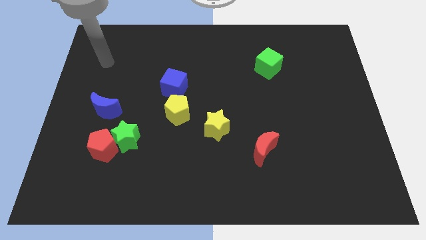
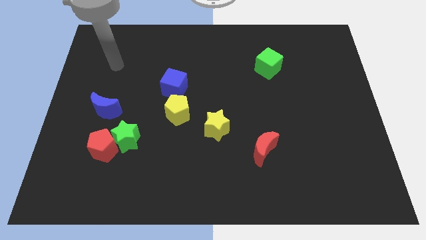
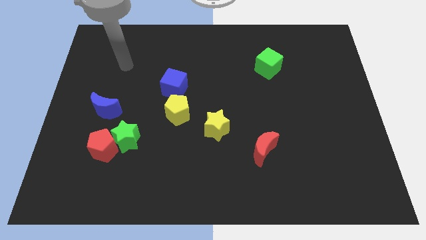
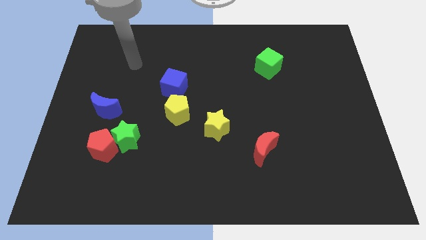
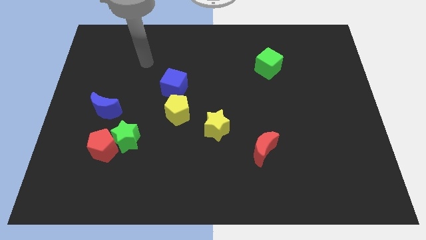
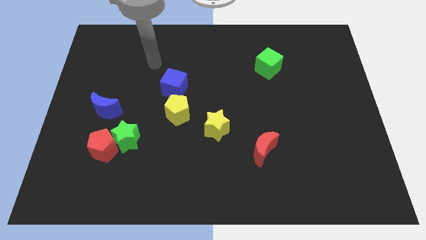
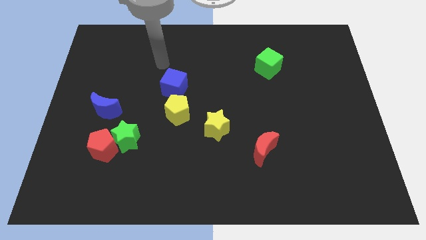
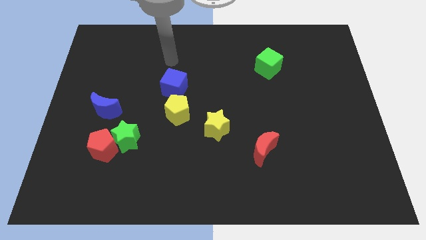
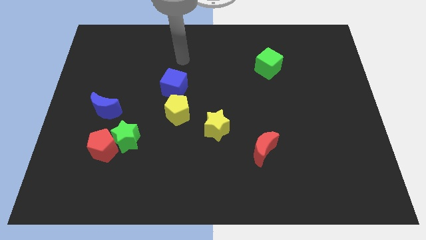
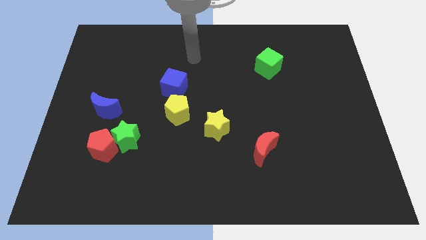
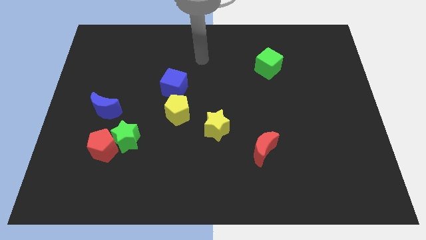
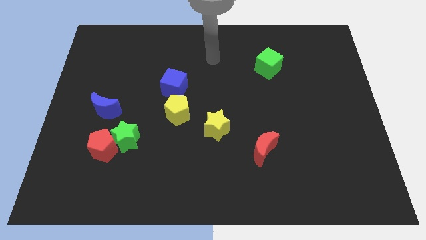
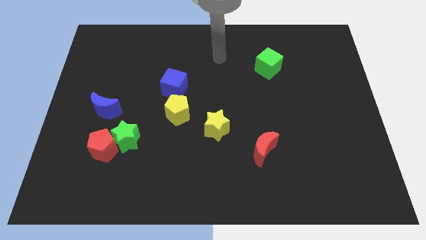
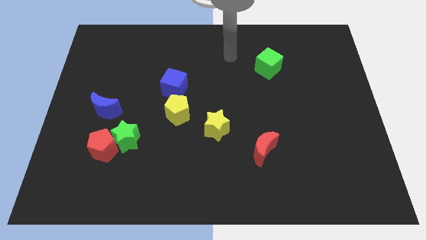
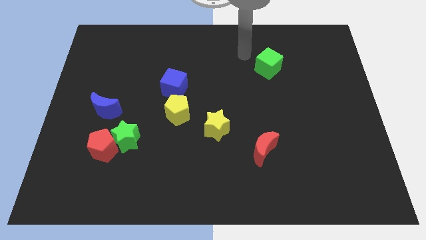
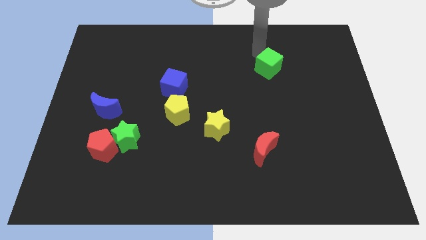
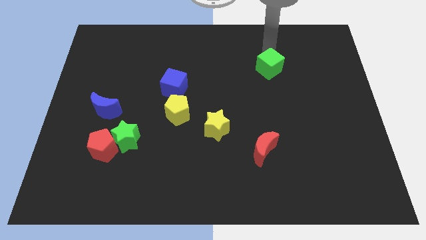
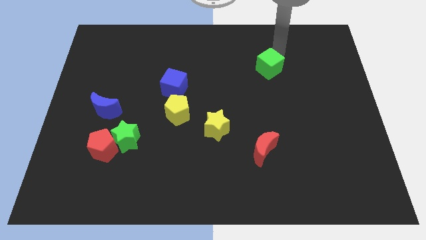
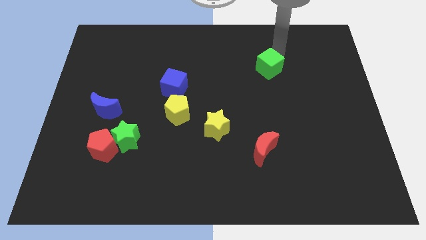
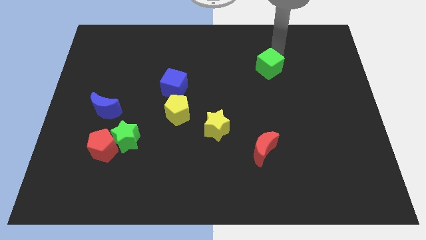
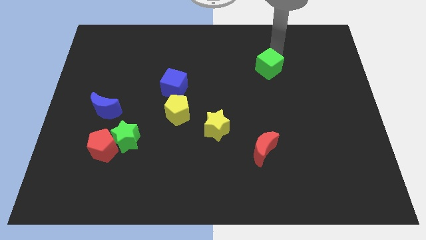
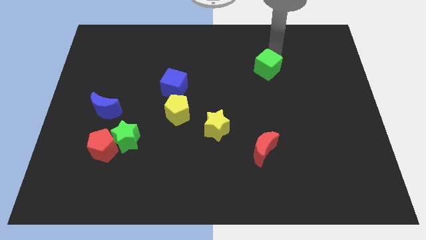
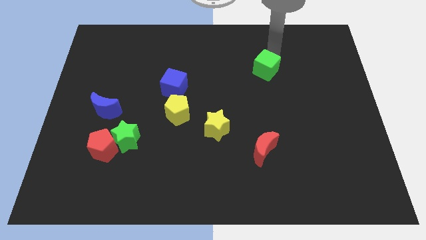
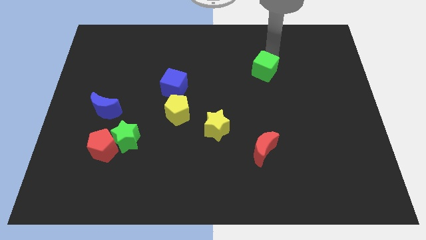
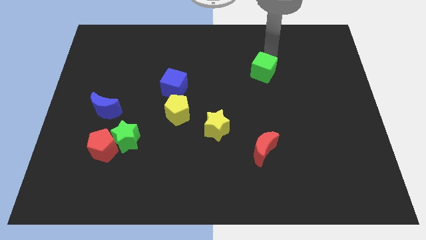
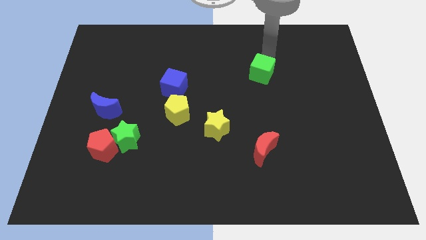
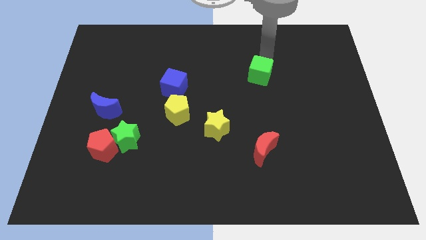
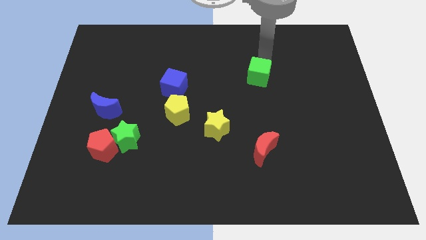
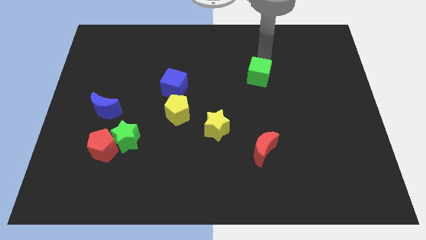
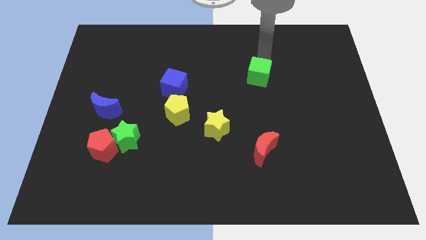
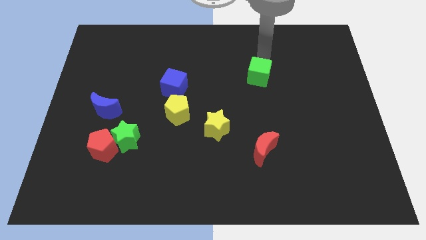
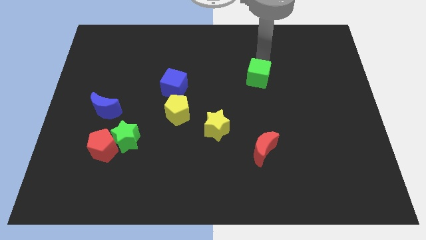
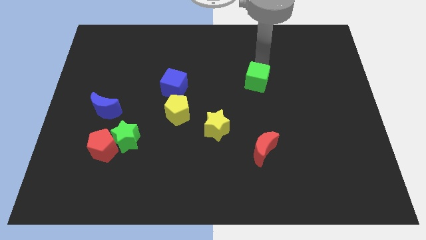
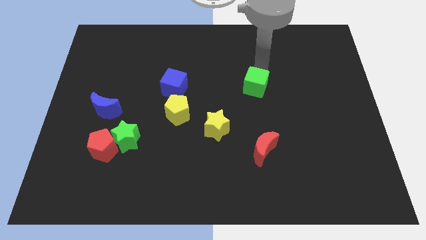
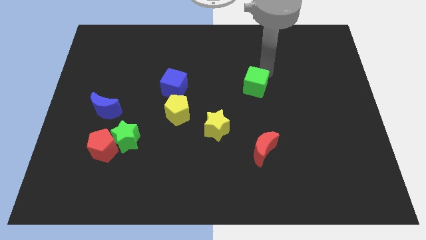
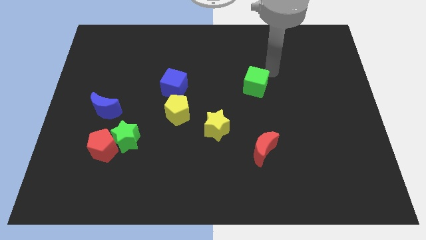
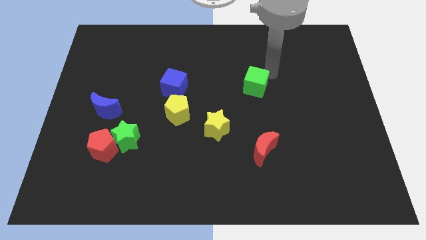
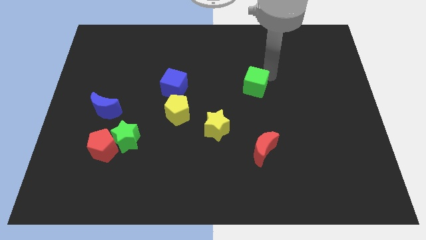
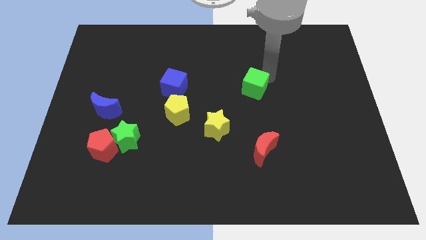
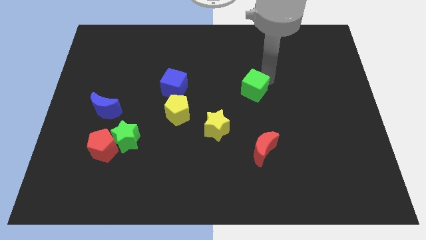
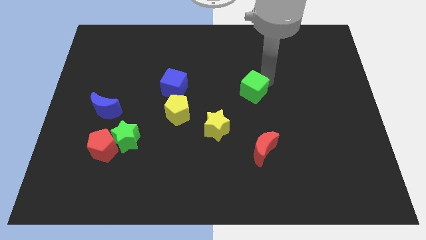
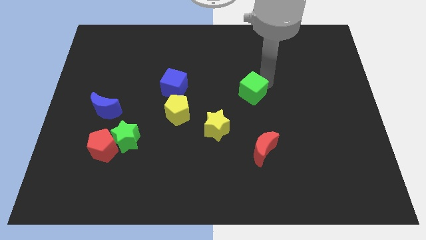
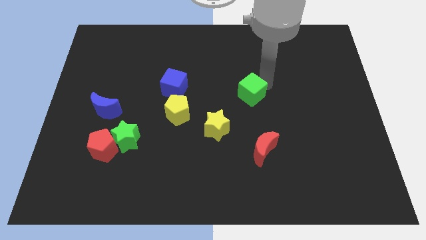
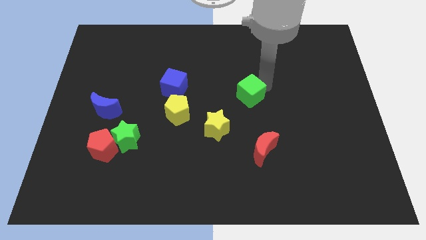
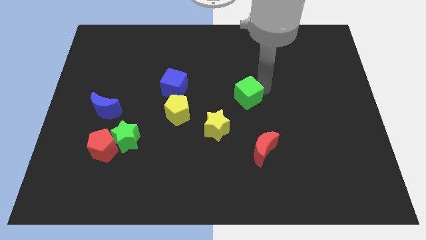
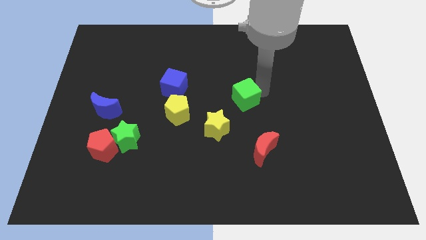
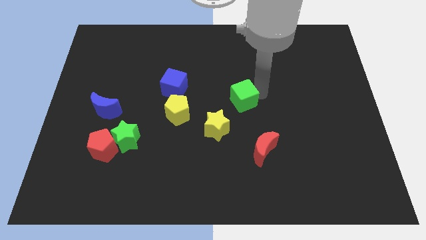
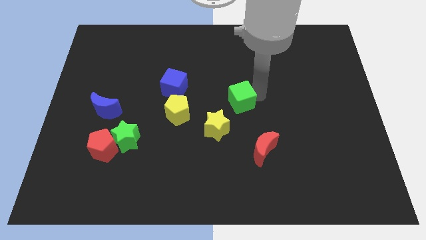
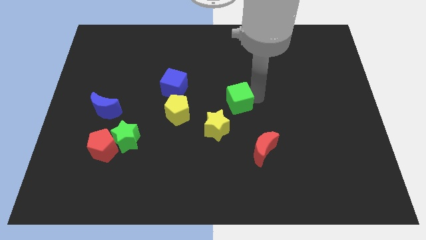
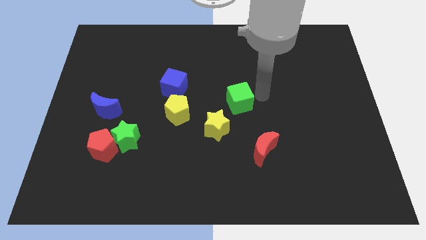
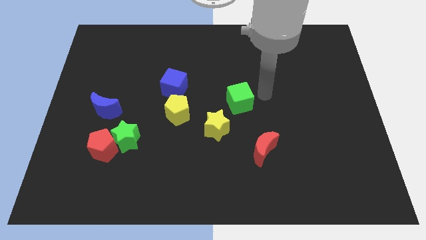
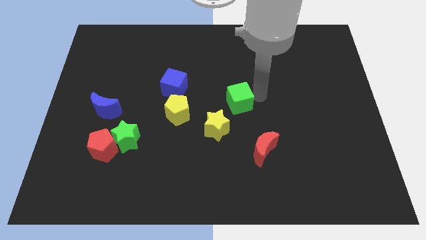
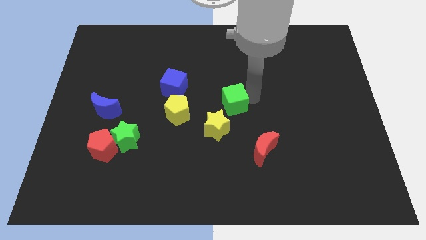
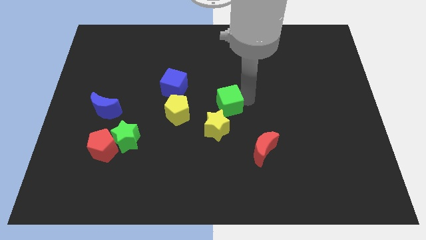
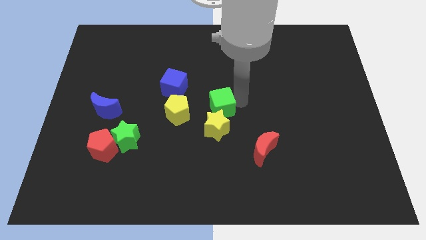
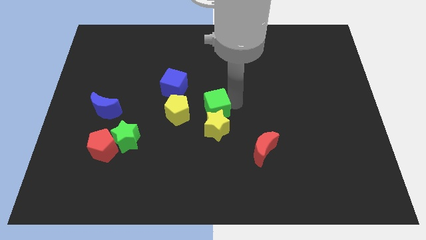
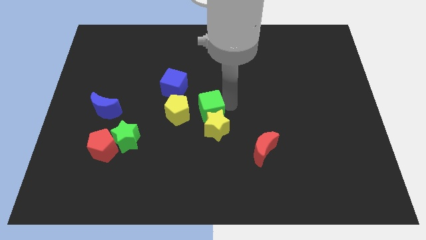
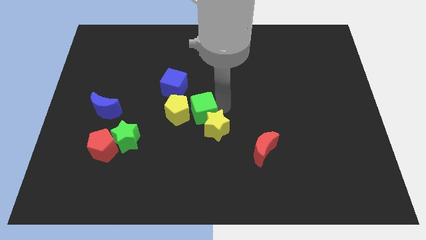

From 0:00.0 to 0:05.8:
slide the green cube towards the yellow pentagon

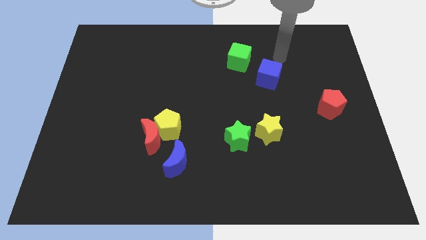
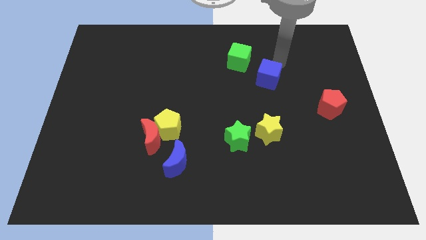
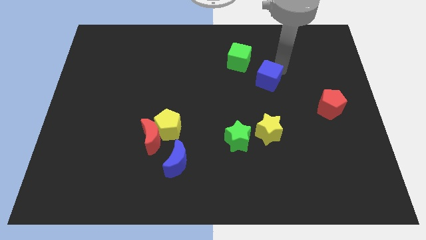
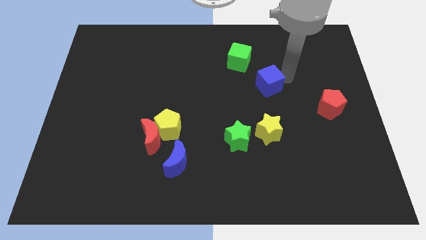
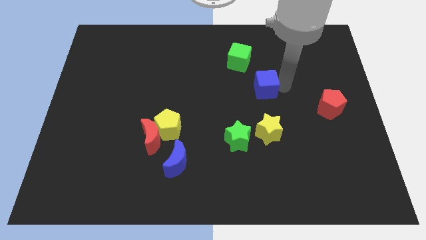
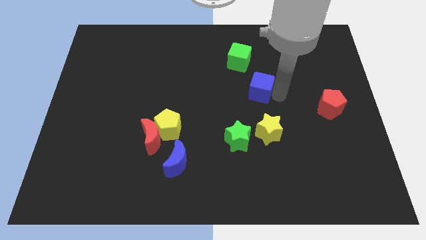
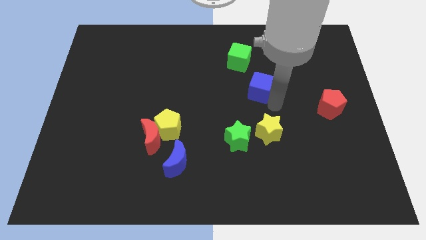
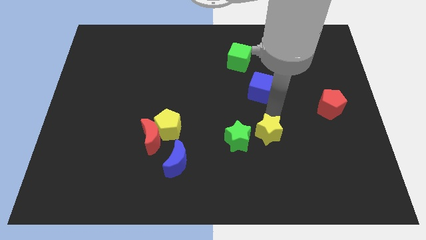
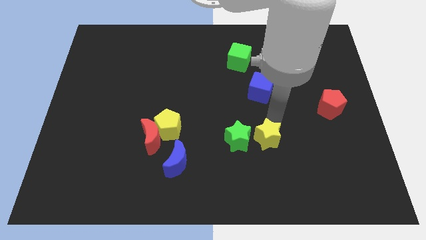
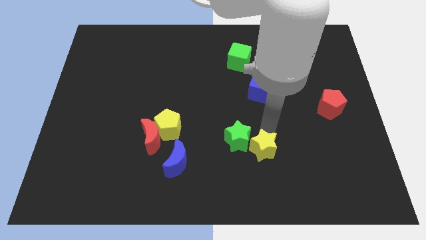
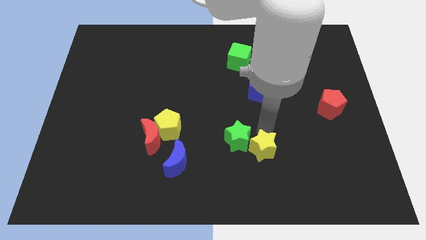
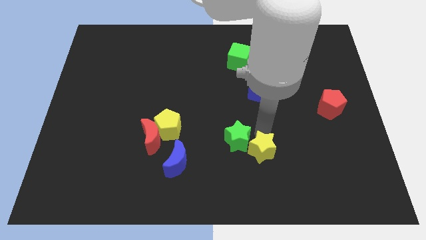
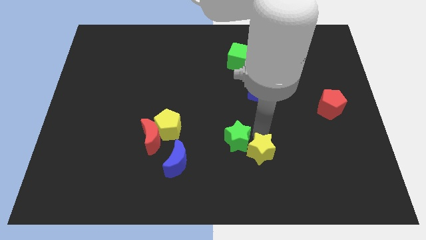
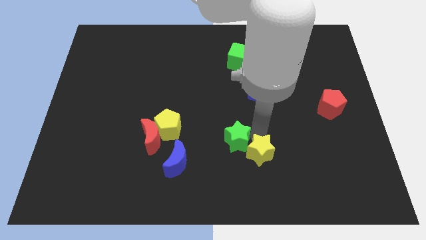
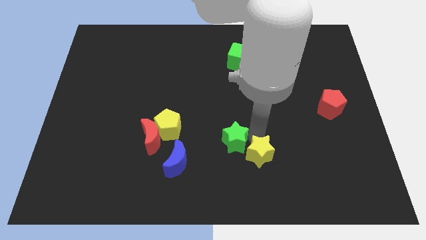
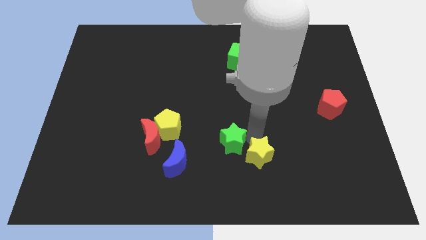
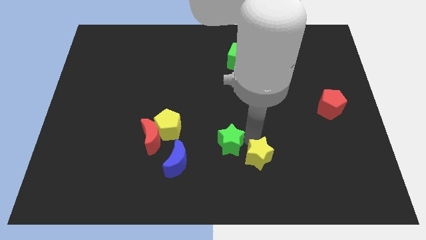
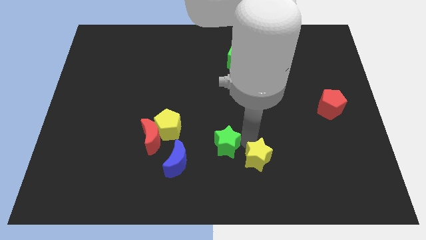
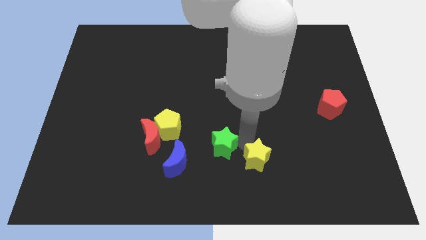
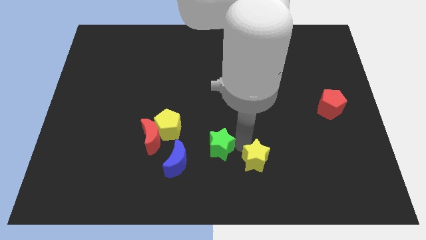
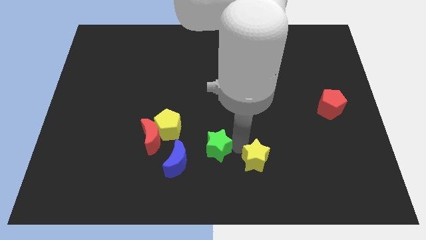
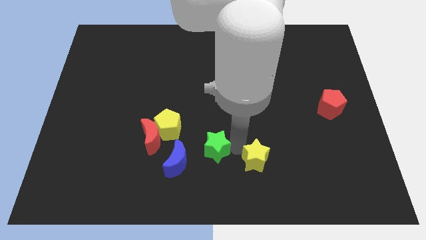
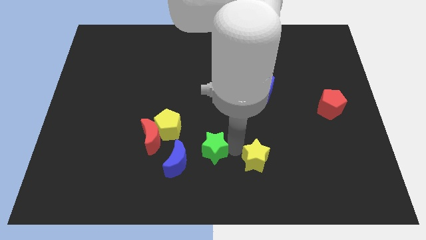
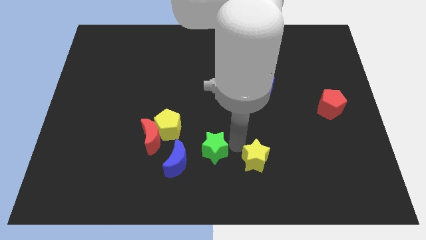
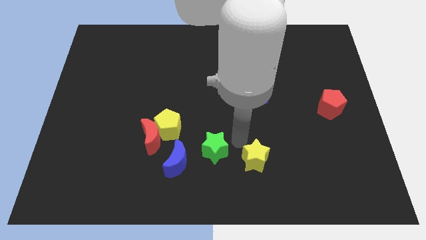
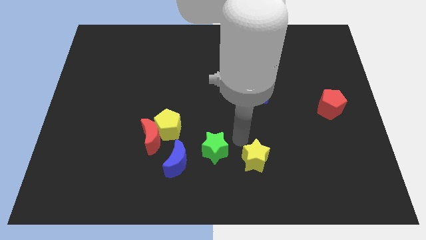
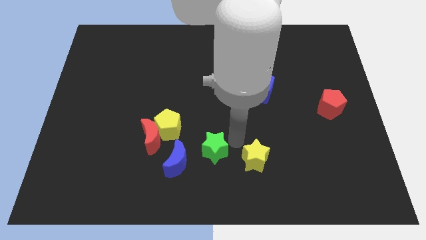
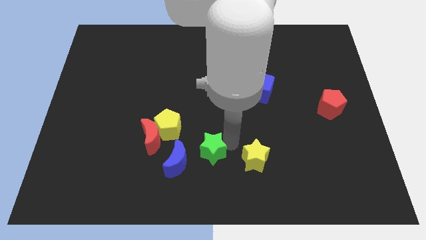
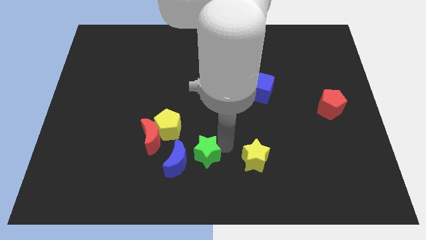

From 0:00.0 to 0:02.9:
slide the green star towards the blue moon
